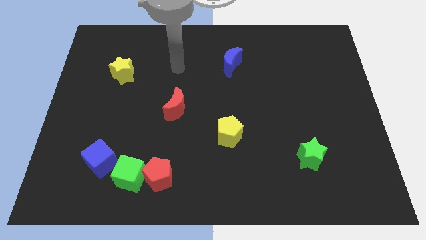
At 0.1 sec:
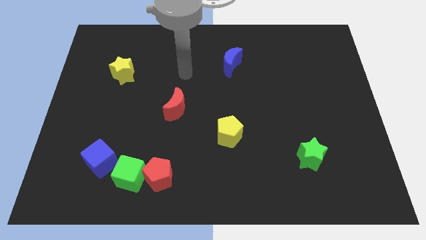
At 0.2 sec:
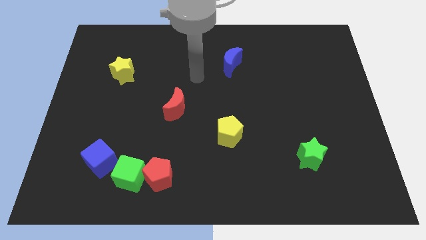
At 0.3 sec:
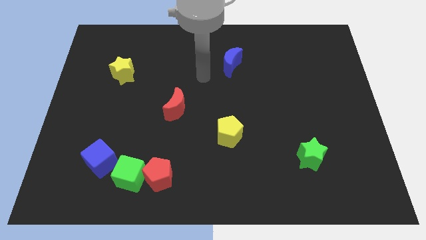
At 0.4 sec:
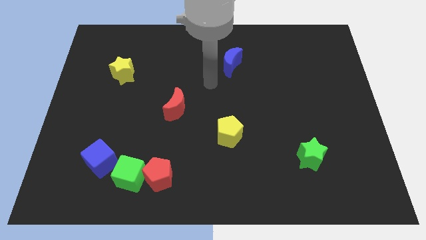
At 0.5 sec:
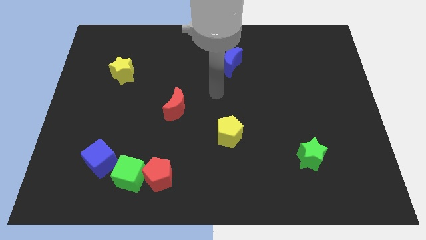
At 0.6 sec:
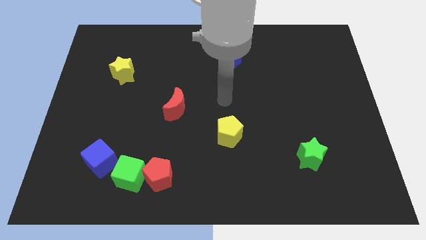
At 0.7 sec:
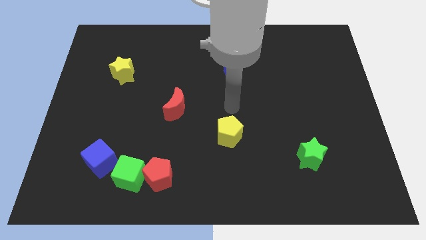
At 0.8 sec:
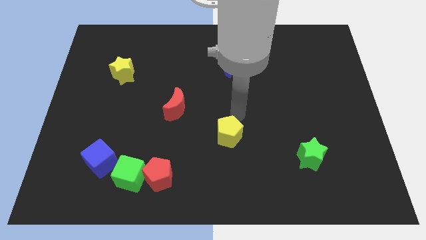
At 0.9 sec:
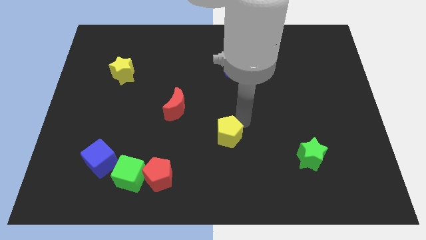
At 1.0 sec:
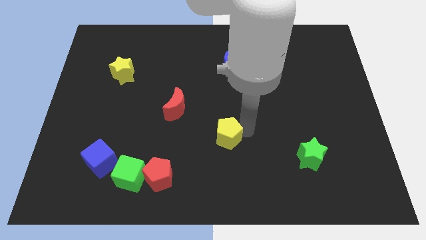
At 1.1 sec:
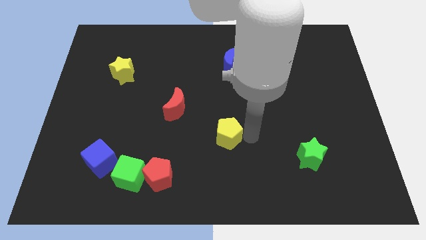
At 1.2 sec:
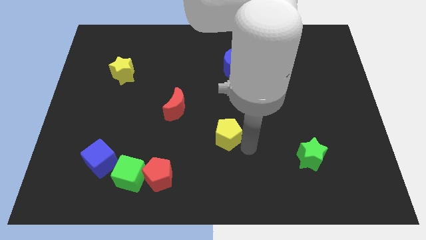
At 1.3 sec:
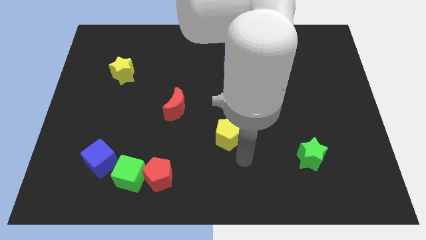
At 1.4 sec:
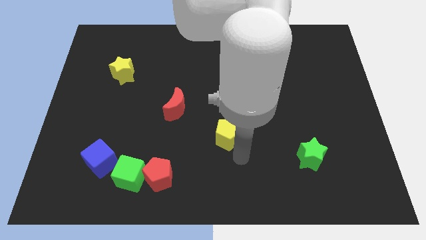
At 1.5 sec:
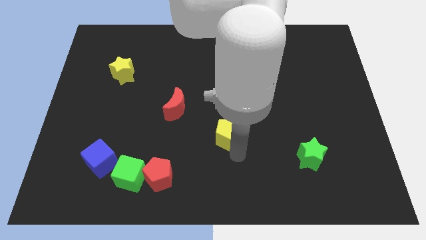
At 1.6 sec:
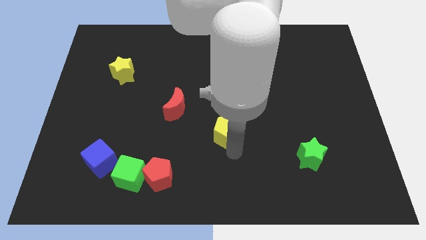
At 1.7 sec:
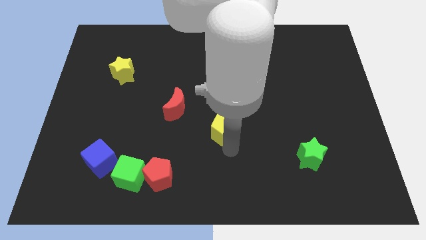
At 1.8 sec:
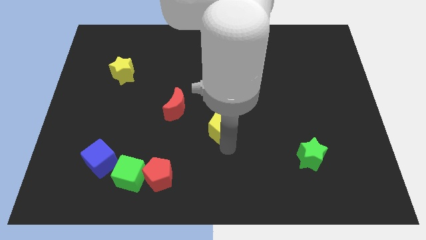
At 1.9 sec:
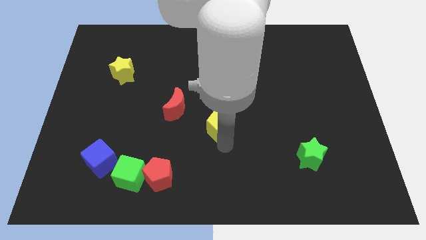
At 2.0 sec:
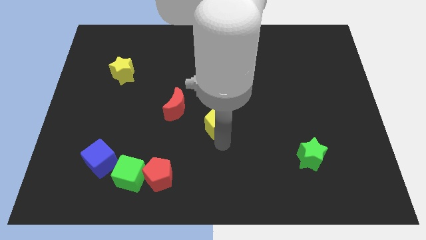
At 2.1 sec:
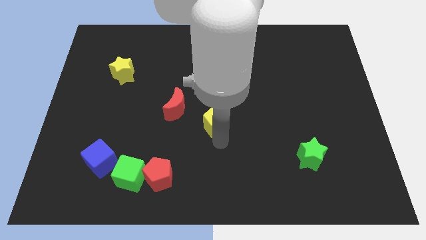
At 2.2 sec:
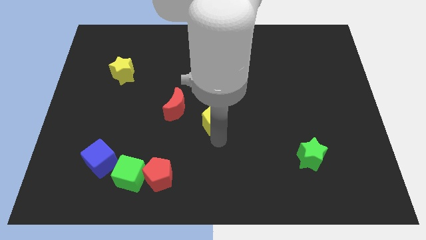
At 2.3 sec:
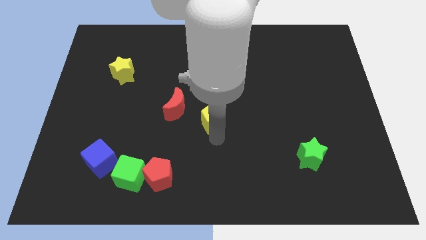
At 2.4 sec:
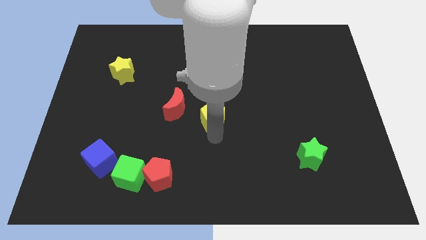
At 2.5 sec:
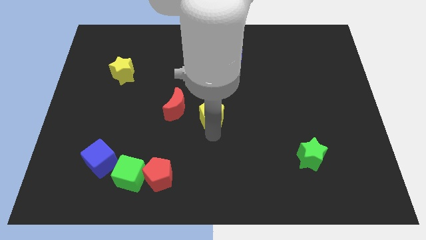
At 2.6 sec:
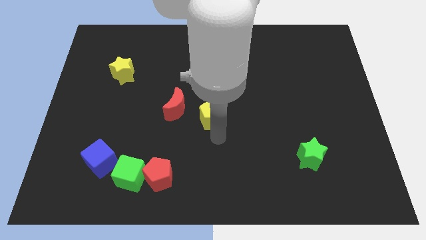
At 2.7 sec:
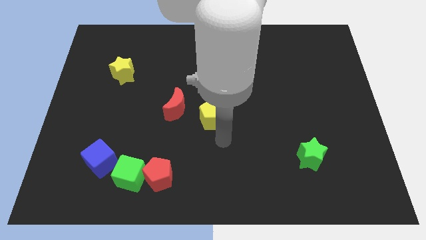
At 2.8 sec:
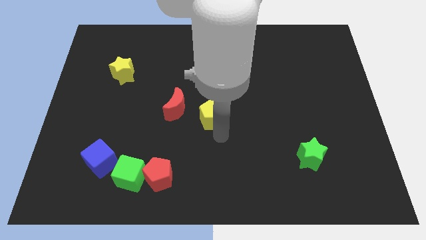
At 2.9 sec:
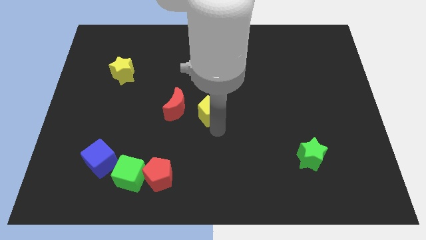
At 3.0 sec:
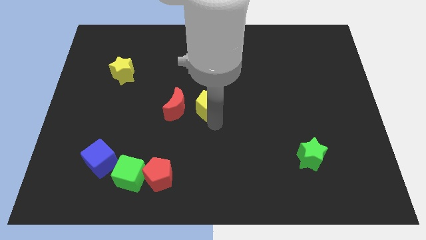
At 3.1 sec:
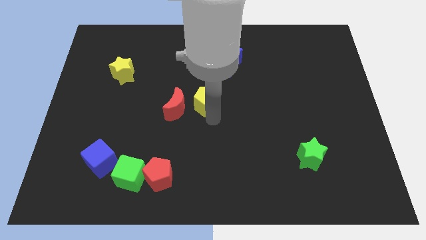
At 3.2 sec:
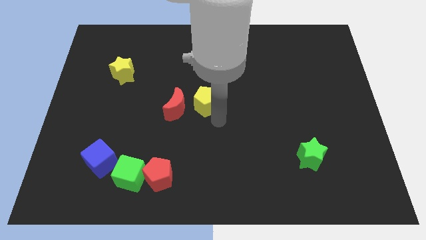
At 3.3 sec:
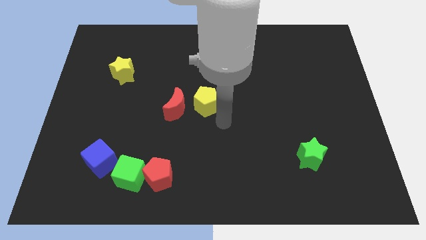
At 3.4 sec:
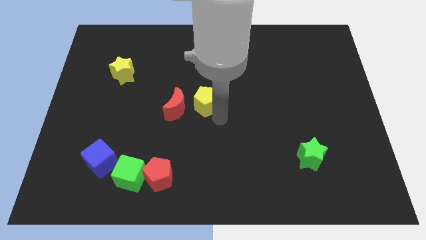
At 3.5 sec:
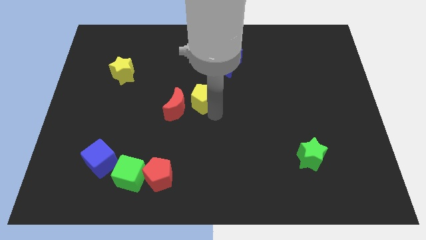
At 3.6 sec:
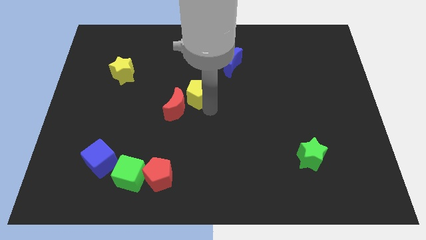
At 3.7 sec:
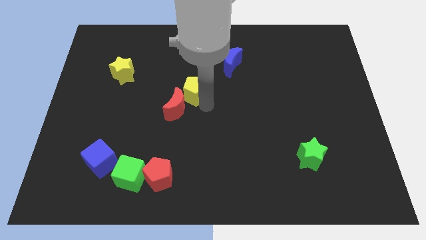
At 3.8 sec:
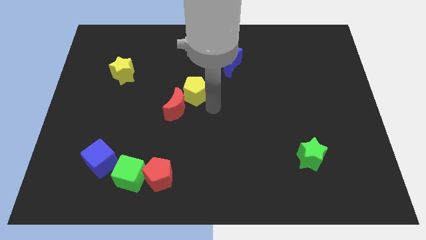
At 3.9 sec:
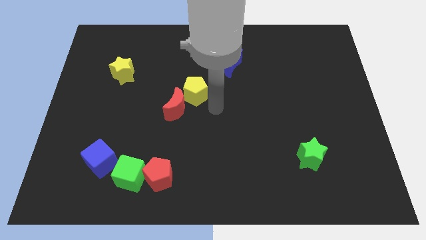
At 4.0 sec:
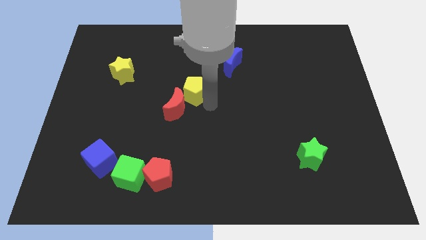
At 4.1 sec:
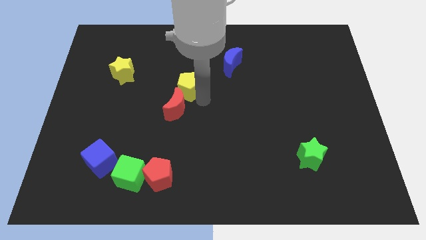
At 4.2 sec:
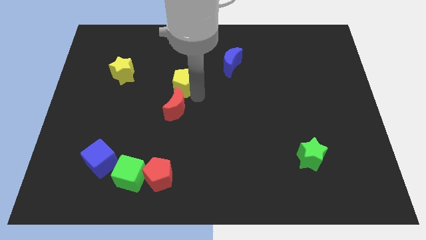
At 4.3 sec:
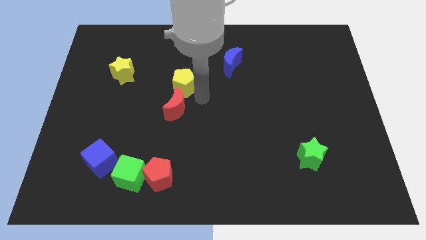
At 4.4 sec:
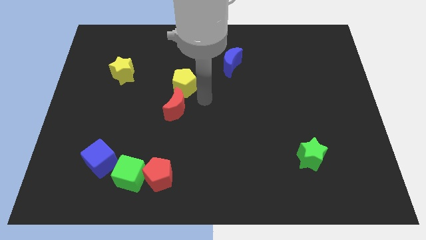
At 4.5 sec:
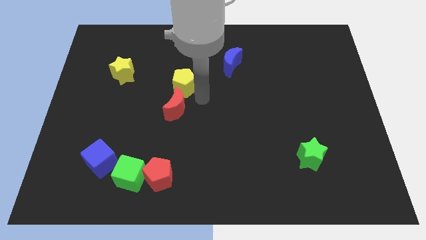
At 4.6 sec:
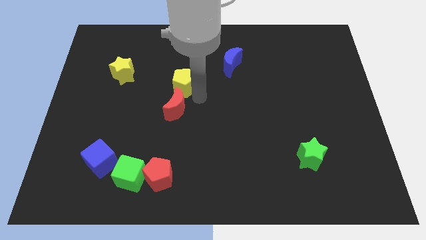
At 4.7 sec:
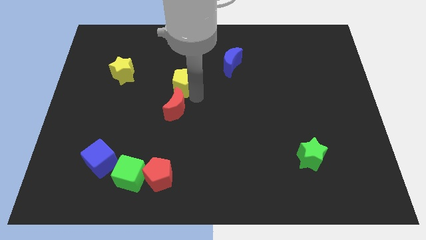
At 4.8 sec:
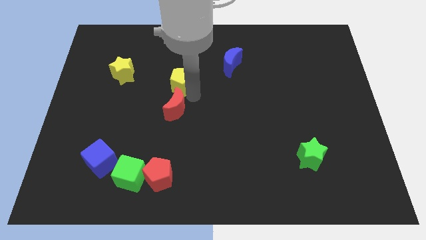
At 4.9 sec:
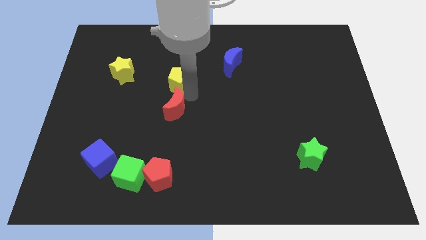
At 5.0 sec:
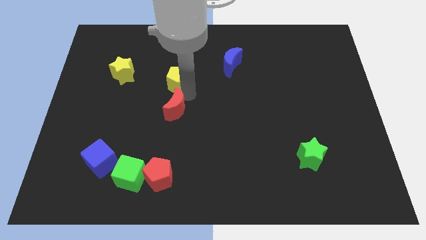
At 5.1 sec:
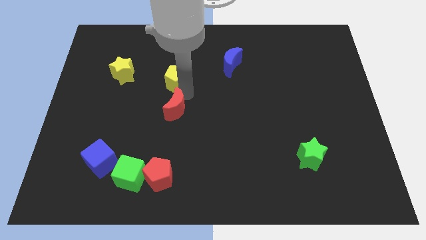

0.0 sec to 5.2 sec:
push the yellow pentagon diagonally up and to the left

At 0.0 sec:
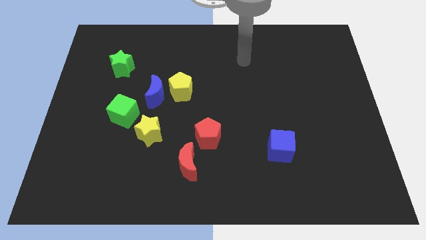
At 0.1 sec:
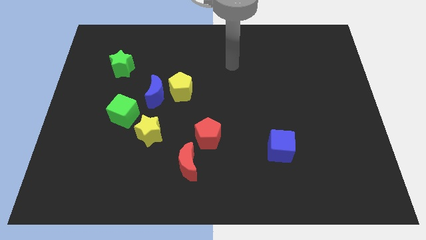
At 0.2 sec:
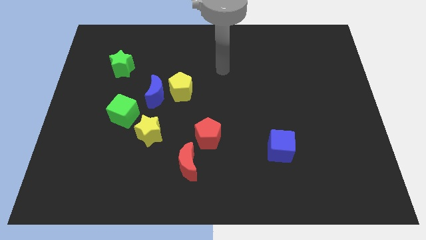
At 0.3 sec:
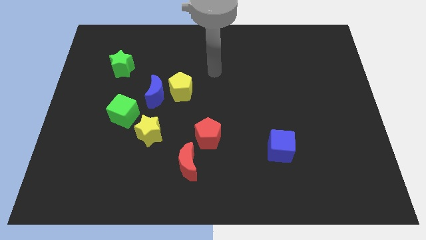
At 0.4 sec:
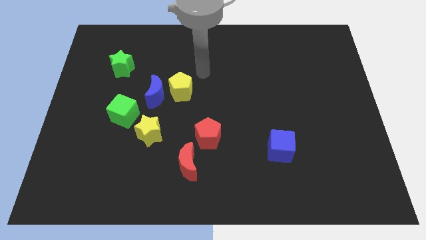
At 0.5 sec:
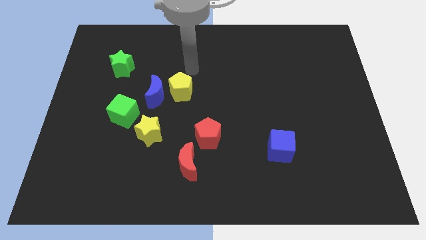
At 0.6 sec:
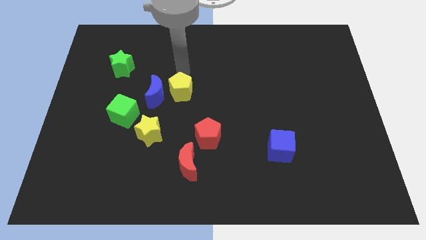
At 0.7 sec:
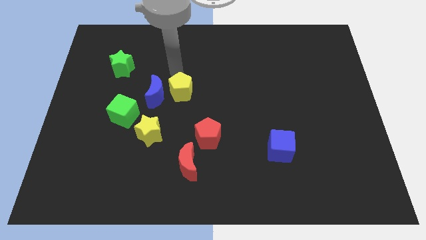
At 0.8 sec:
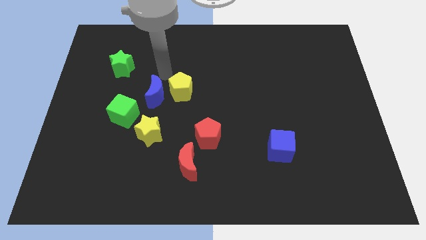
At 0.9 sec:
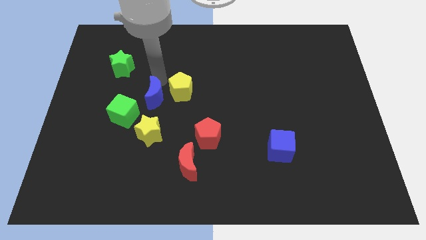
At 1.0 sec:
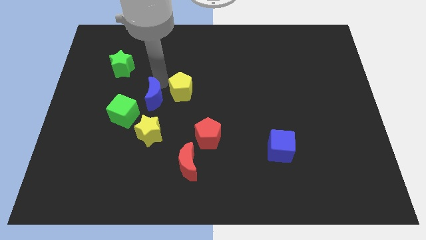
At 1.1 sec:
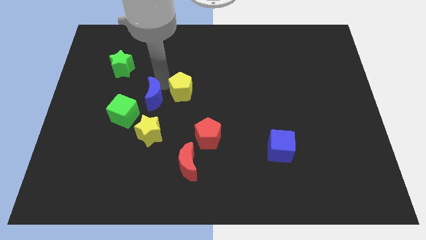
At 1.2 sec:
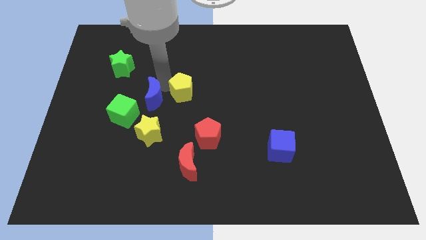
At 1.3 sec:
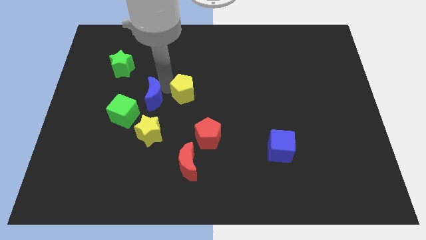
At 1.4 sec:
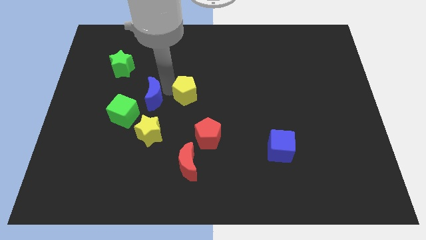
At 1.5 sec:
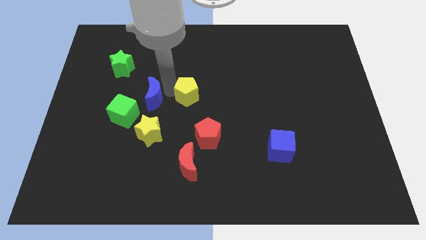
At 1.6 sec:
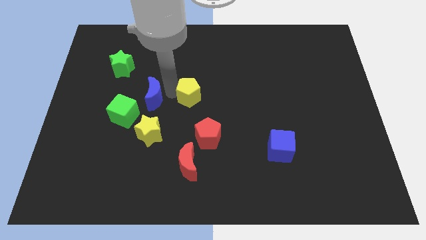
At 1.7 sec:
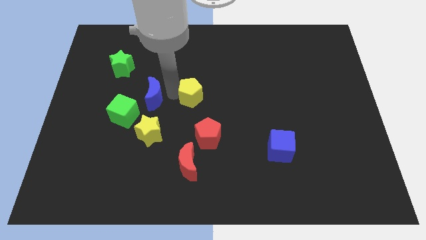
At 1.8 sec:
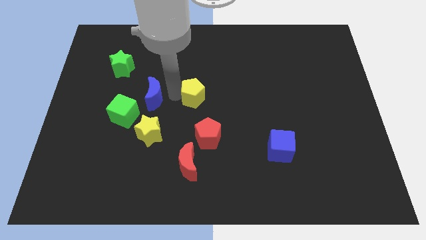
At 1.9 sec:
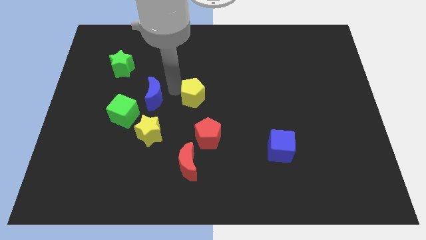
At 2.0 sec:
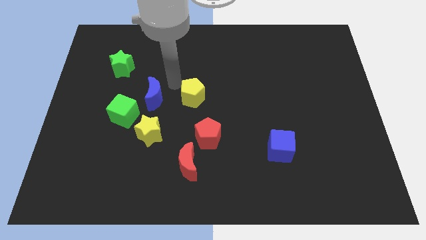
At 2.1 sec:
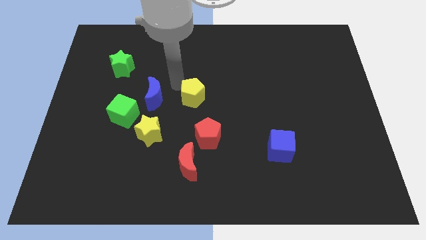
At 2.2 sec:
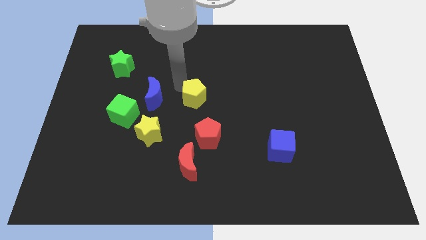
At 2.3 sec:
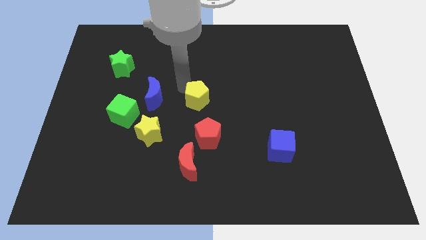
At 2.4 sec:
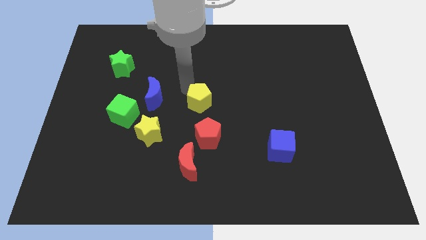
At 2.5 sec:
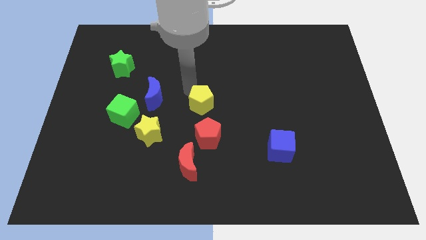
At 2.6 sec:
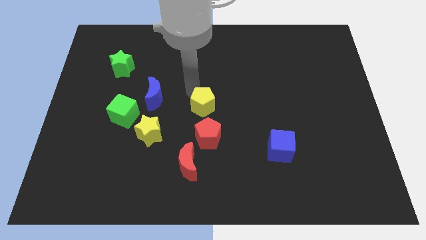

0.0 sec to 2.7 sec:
slightly move the yellow pentagon downwards and right

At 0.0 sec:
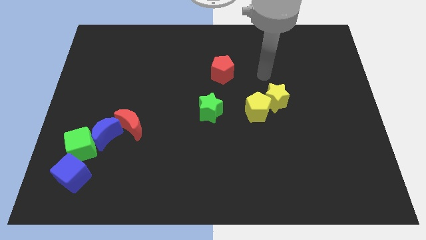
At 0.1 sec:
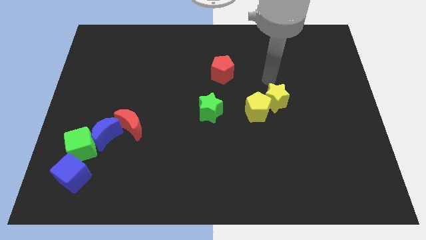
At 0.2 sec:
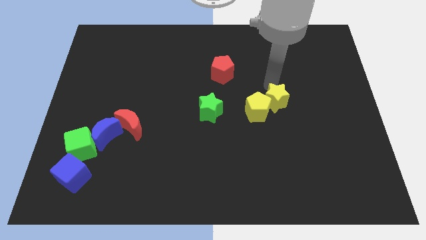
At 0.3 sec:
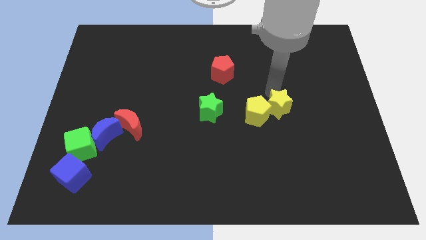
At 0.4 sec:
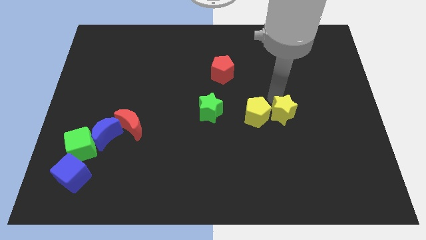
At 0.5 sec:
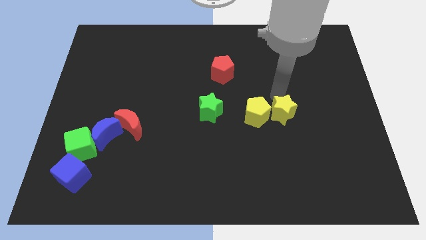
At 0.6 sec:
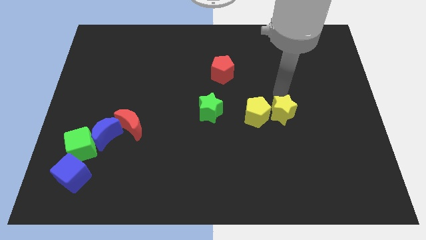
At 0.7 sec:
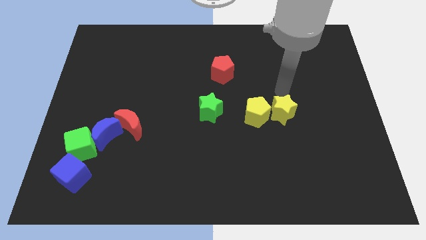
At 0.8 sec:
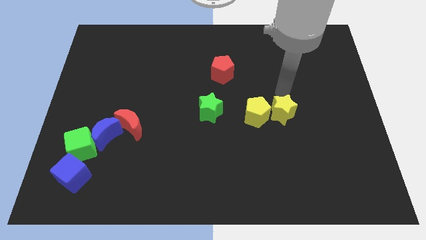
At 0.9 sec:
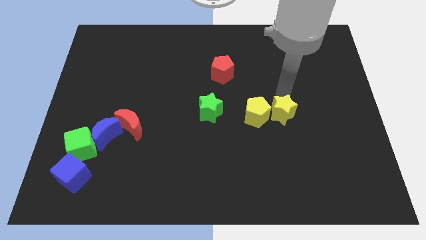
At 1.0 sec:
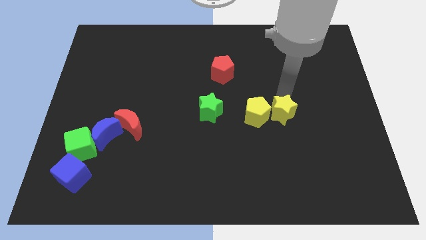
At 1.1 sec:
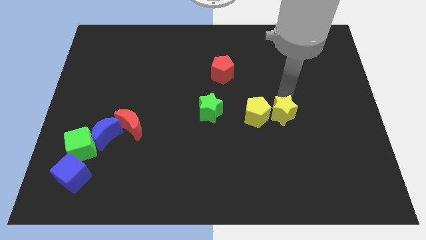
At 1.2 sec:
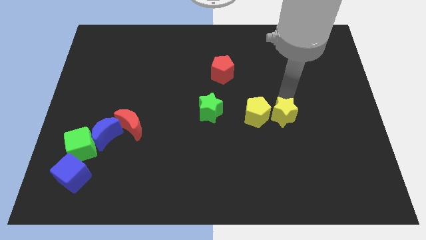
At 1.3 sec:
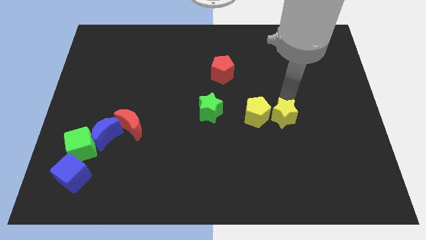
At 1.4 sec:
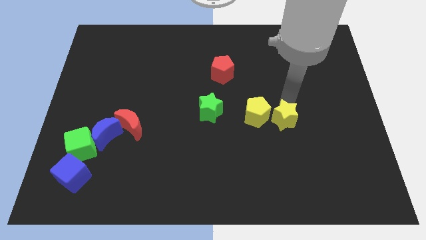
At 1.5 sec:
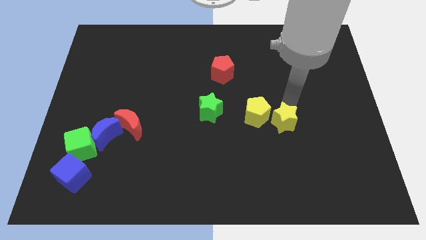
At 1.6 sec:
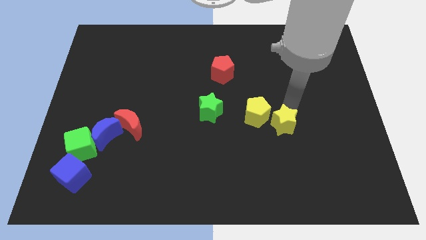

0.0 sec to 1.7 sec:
slightly slide the yellow star down
